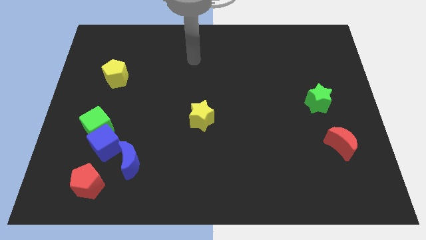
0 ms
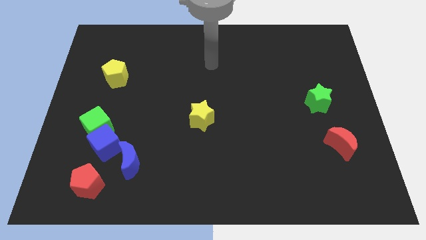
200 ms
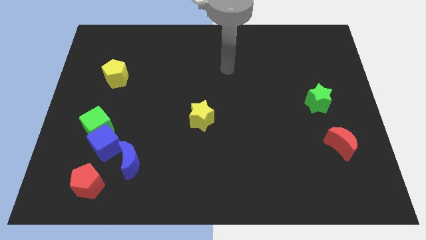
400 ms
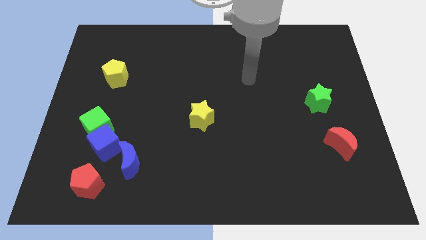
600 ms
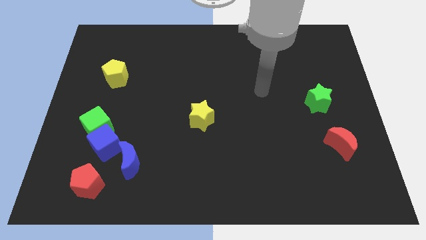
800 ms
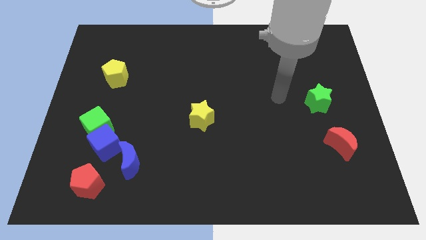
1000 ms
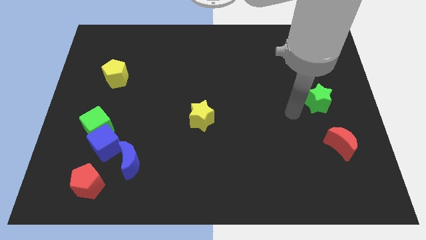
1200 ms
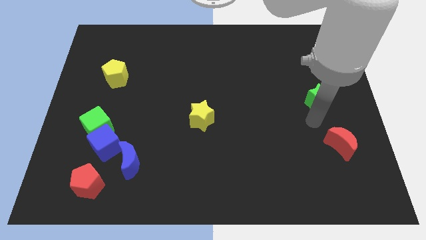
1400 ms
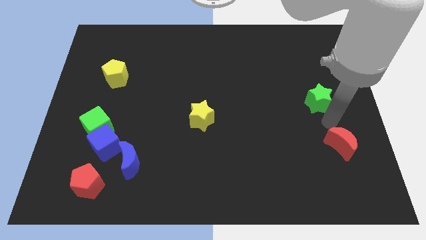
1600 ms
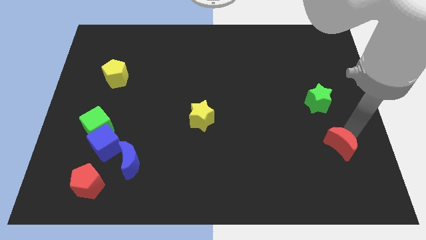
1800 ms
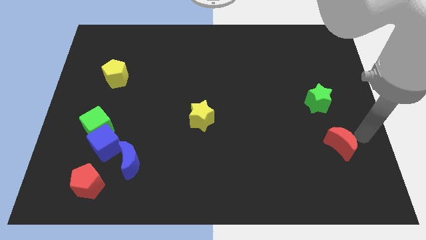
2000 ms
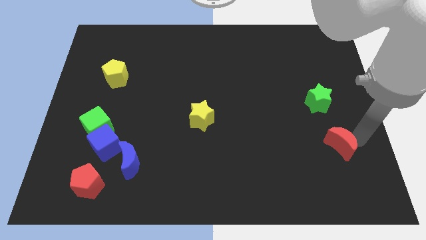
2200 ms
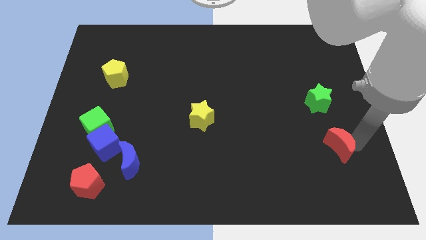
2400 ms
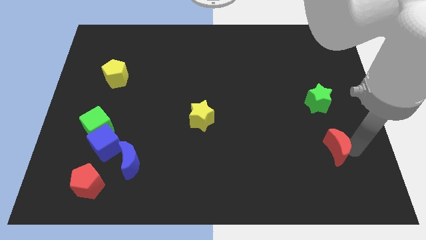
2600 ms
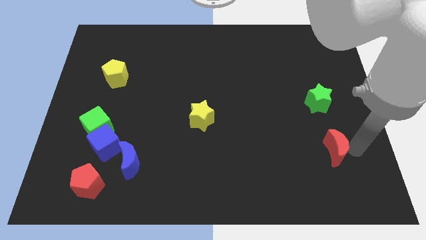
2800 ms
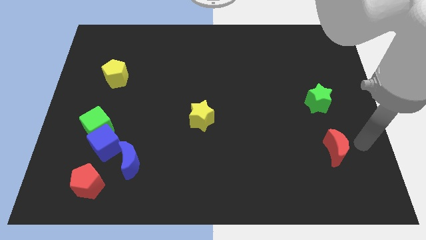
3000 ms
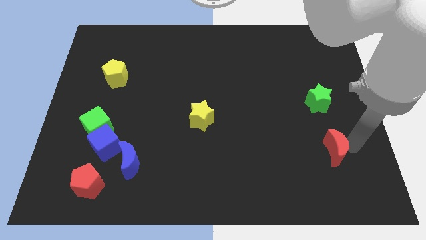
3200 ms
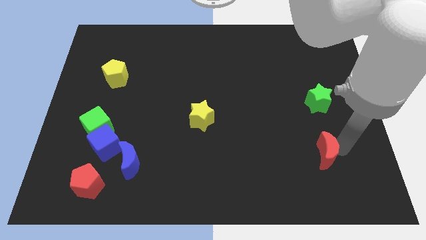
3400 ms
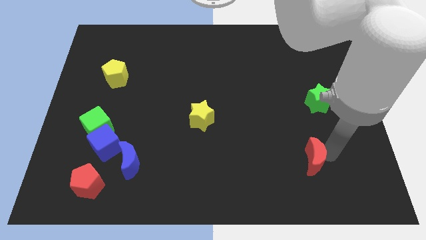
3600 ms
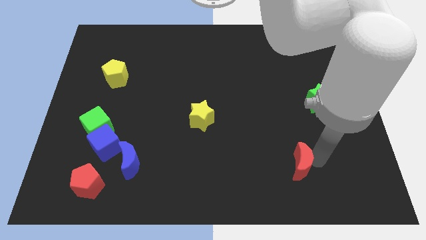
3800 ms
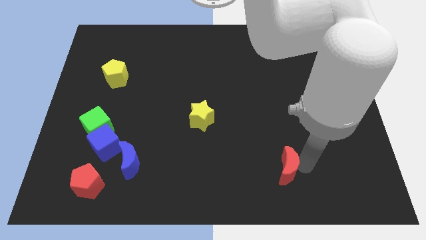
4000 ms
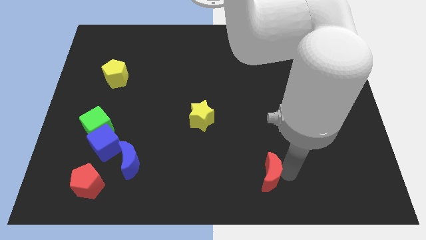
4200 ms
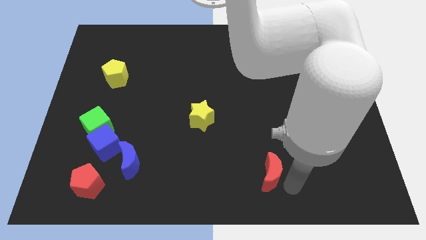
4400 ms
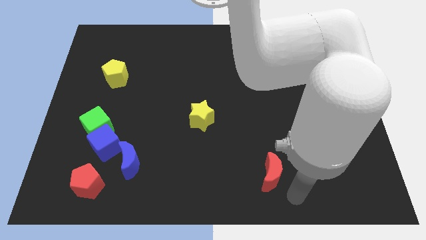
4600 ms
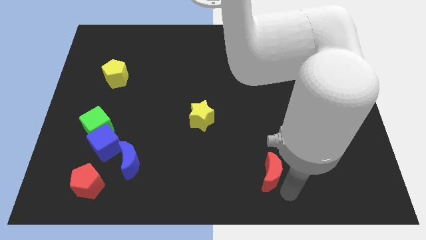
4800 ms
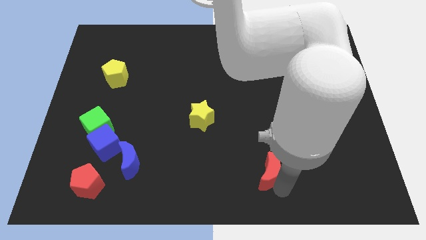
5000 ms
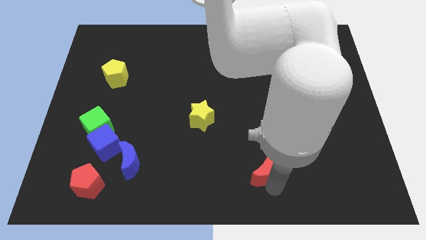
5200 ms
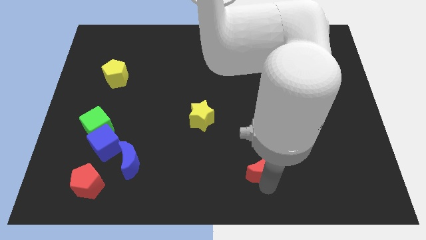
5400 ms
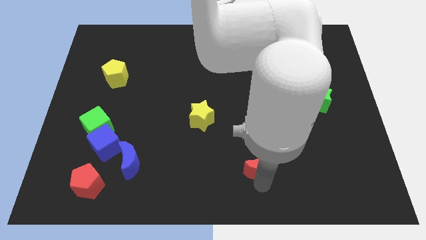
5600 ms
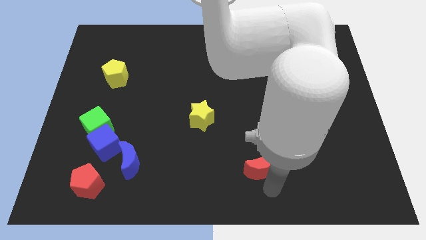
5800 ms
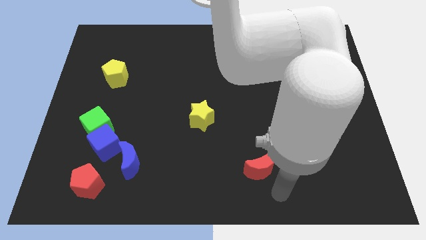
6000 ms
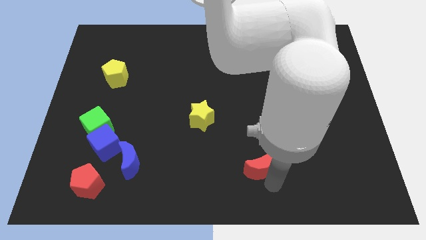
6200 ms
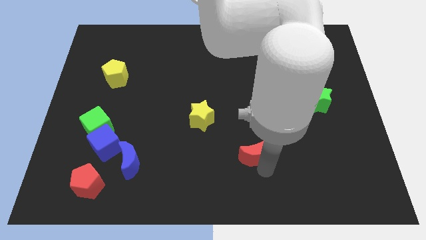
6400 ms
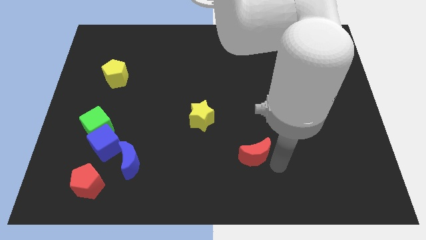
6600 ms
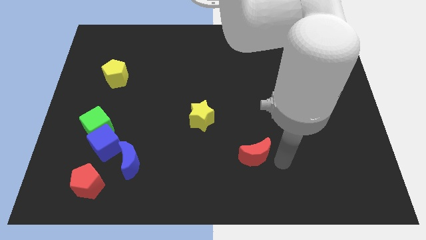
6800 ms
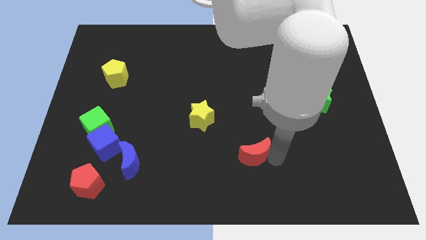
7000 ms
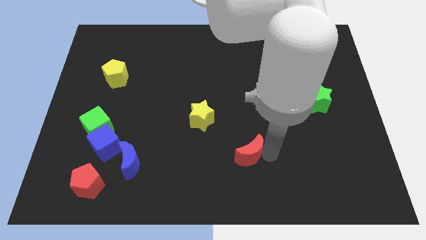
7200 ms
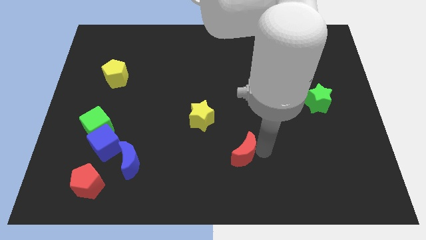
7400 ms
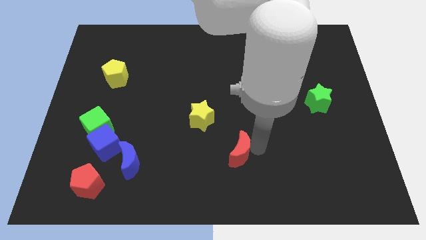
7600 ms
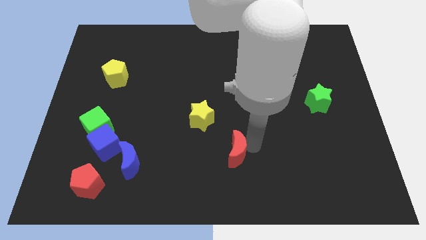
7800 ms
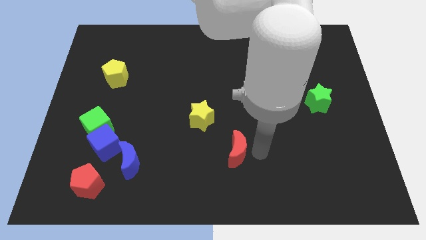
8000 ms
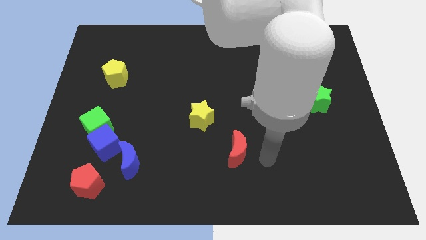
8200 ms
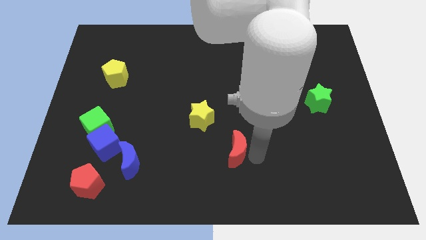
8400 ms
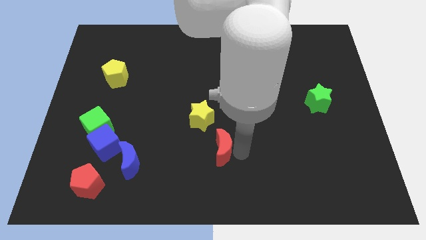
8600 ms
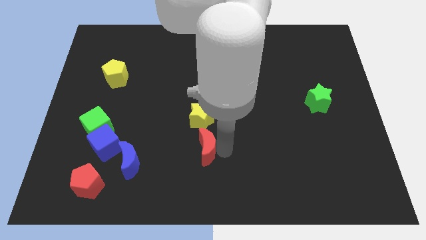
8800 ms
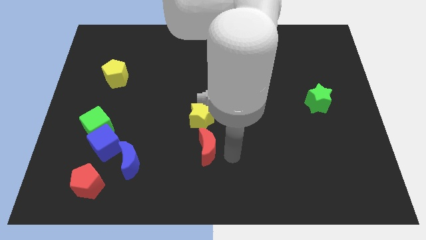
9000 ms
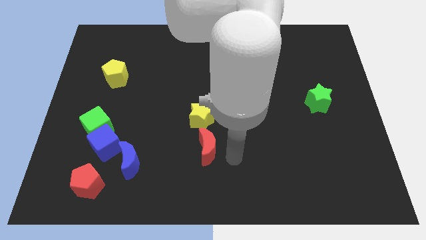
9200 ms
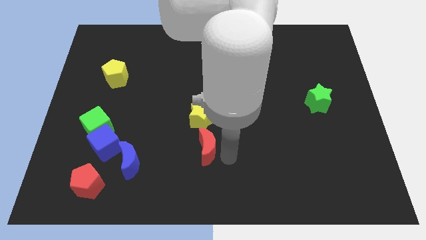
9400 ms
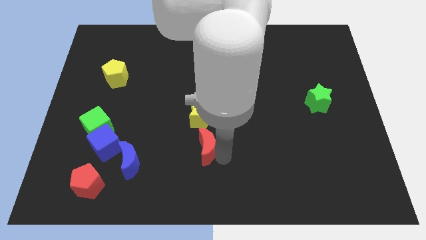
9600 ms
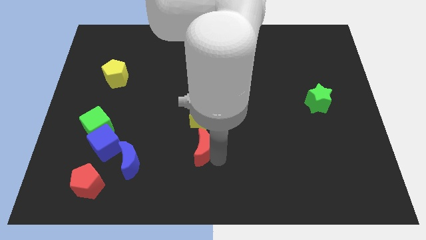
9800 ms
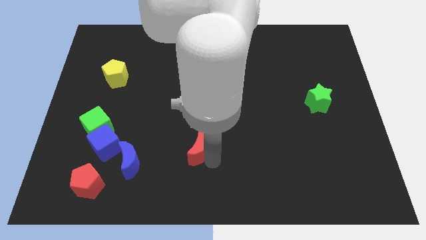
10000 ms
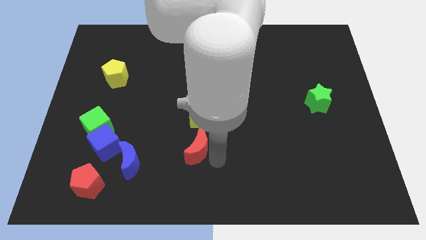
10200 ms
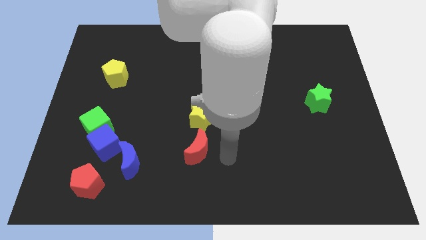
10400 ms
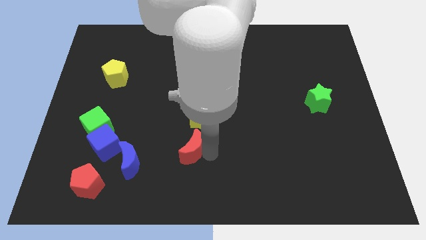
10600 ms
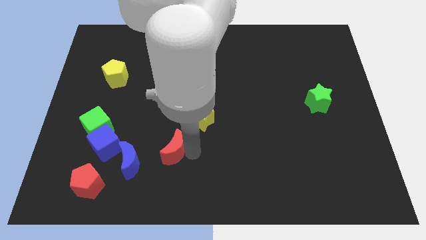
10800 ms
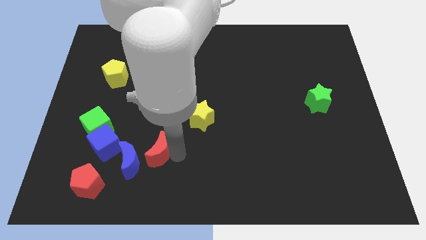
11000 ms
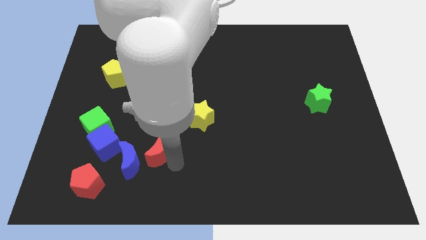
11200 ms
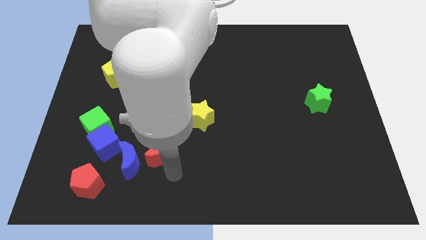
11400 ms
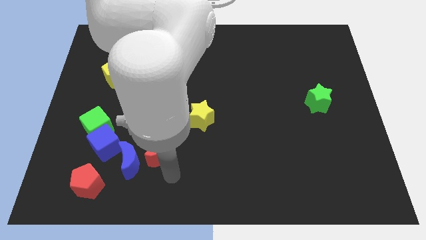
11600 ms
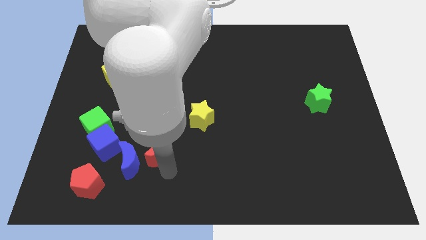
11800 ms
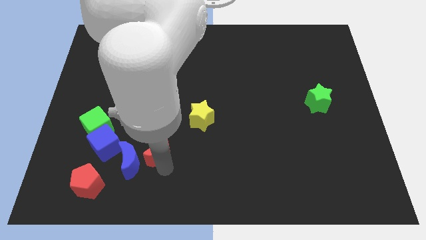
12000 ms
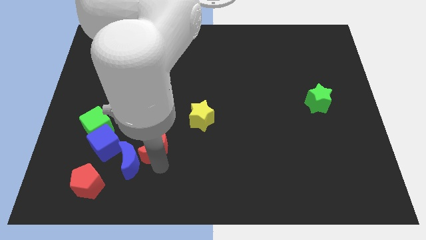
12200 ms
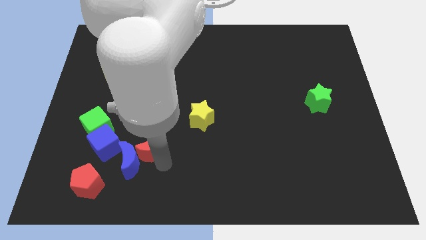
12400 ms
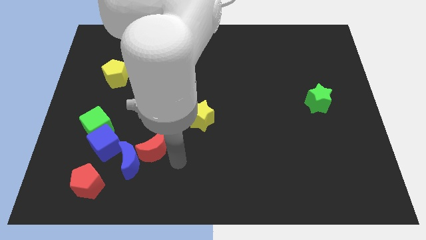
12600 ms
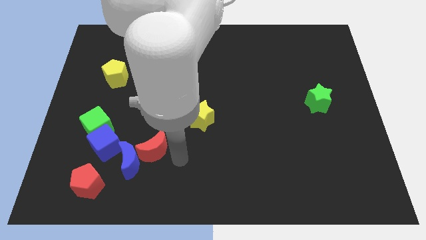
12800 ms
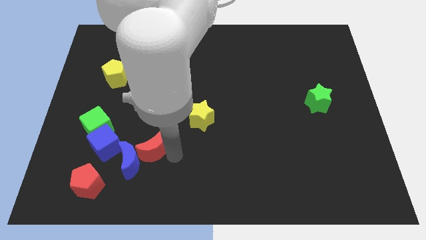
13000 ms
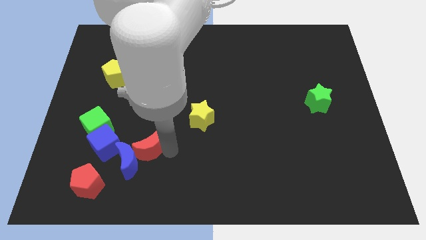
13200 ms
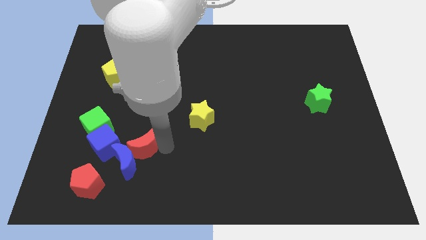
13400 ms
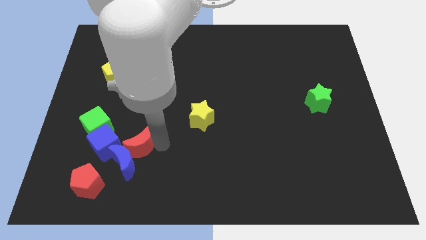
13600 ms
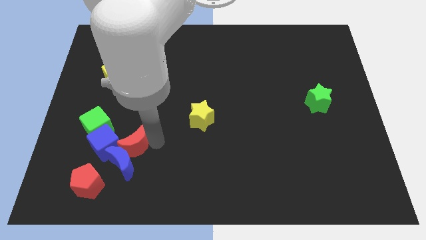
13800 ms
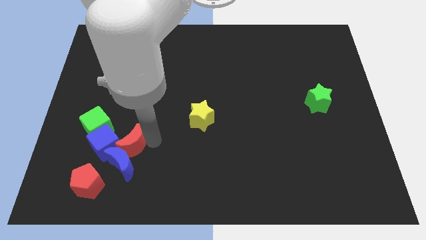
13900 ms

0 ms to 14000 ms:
push the red moon next to the blue cube

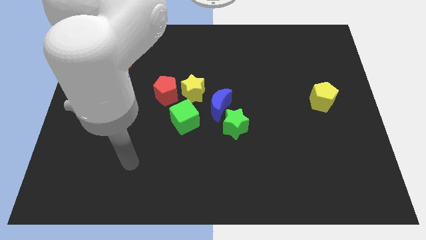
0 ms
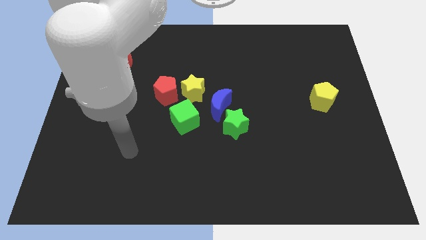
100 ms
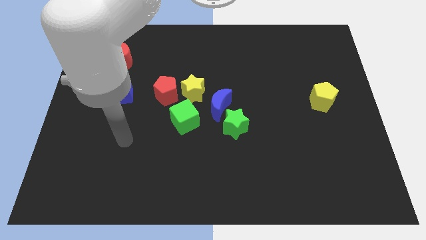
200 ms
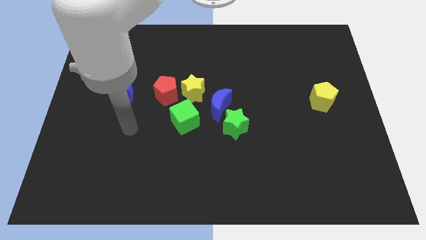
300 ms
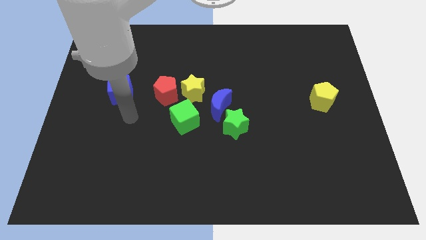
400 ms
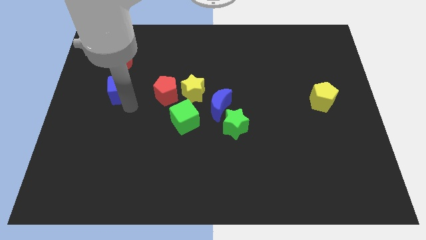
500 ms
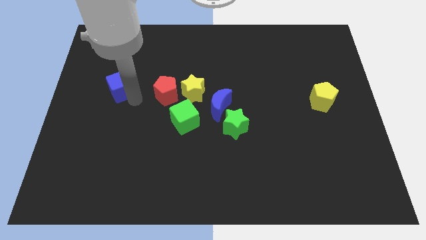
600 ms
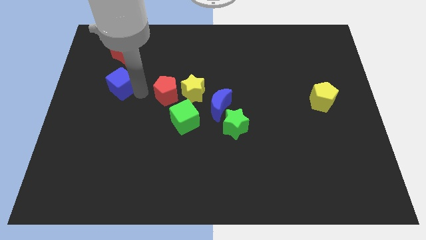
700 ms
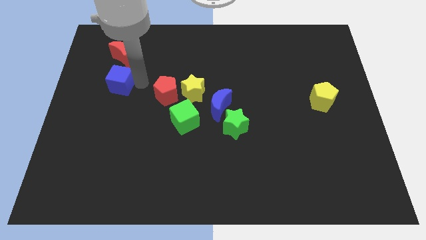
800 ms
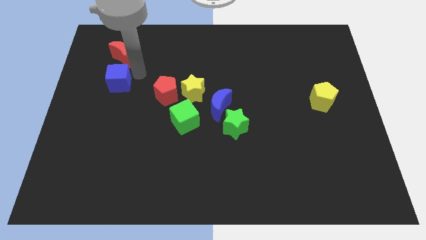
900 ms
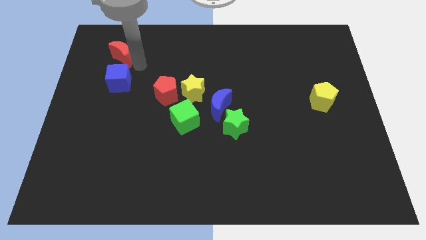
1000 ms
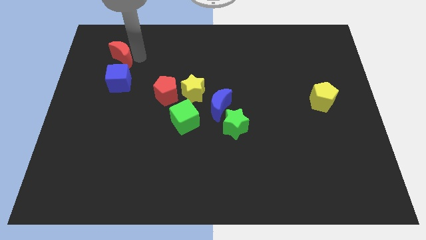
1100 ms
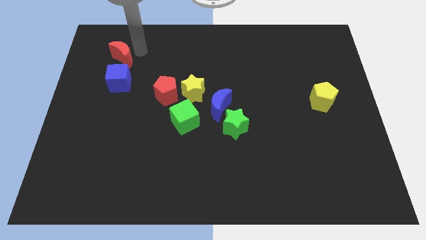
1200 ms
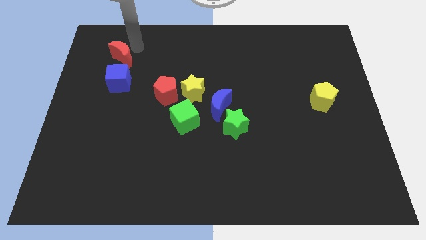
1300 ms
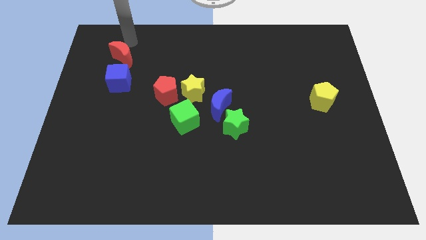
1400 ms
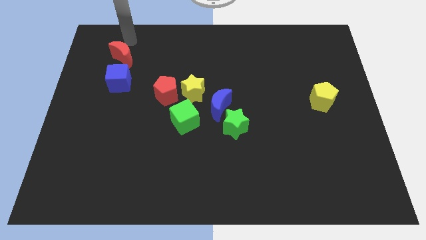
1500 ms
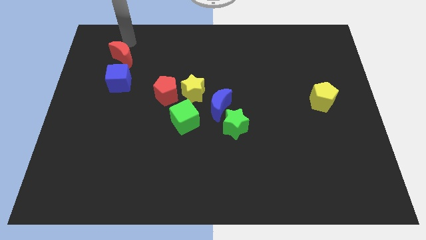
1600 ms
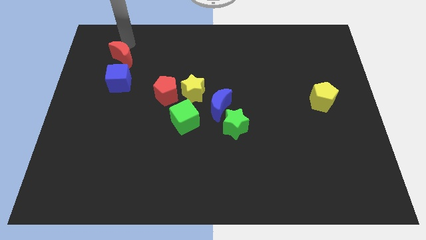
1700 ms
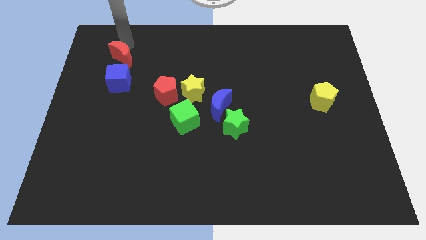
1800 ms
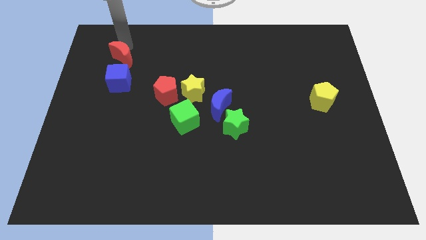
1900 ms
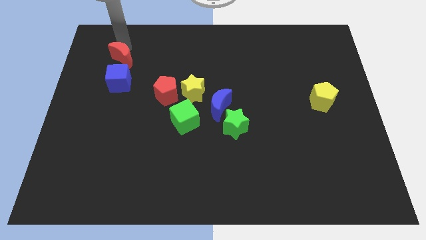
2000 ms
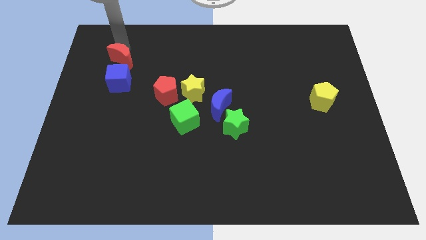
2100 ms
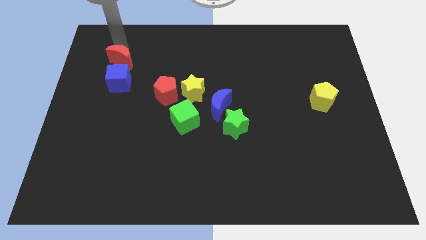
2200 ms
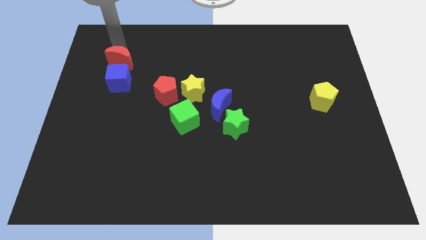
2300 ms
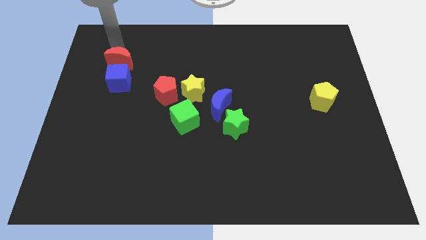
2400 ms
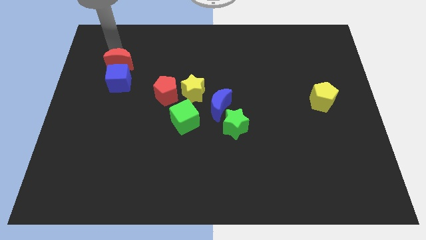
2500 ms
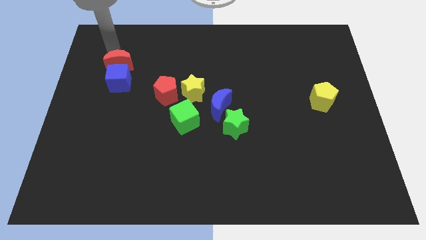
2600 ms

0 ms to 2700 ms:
move the red moon next to the blue cube
